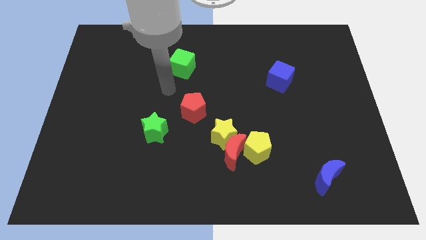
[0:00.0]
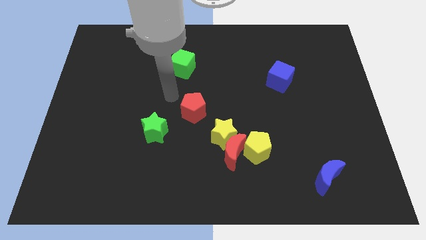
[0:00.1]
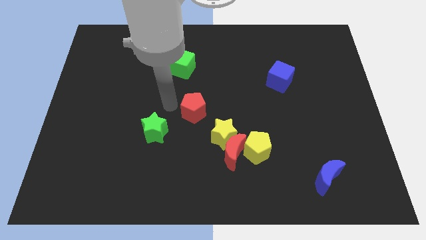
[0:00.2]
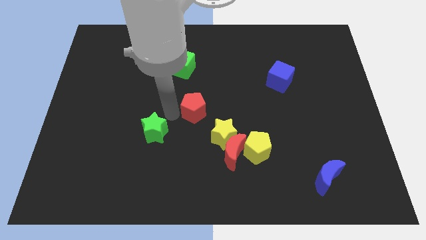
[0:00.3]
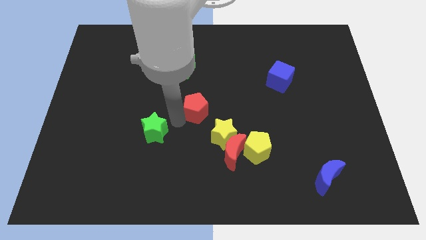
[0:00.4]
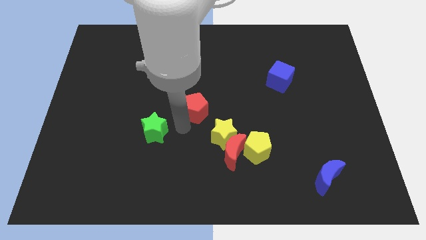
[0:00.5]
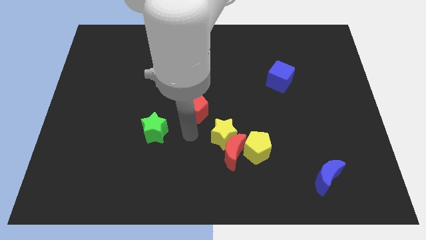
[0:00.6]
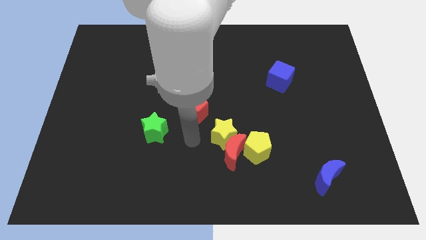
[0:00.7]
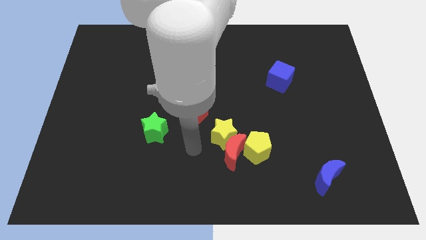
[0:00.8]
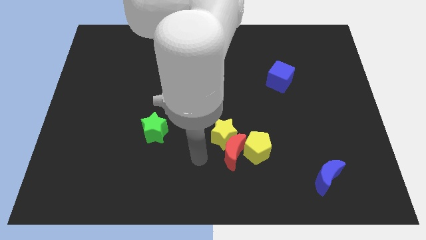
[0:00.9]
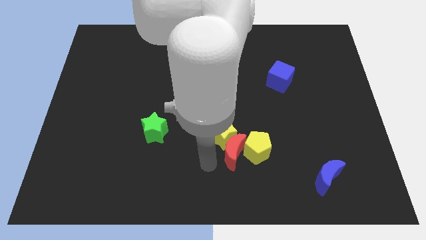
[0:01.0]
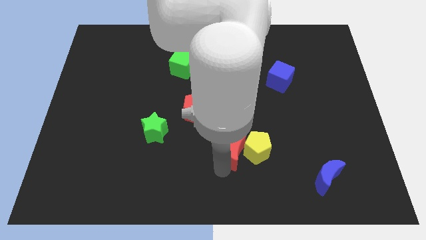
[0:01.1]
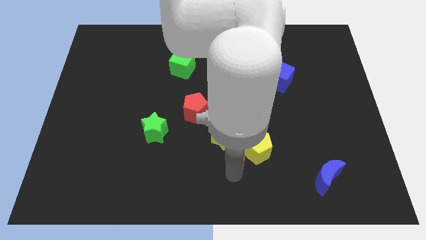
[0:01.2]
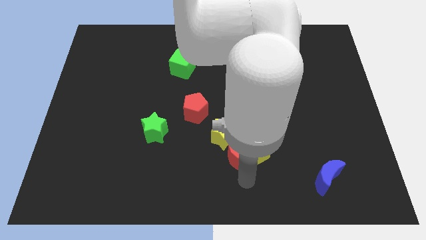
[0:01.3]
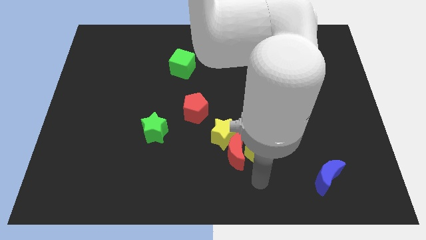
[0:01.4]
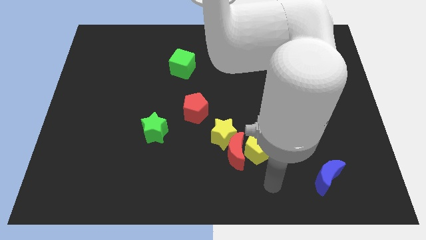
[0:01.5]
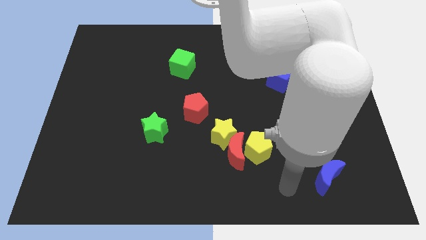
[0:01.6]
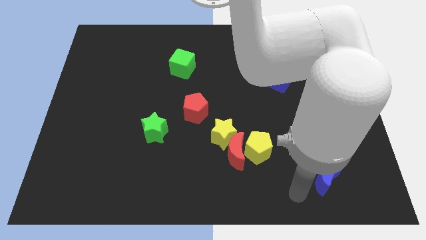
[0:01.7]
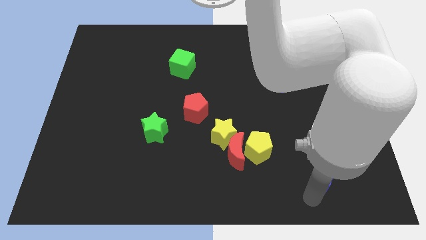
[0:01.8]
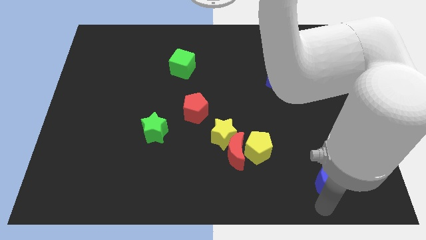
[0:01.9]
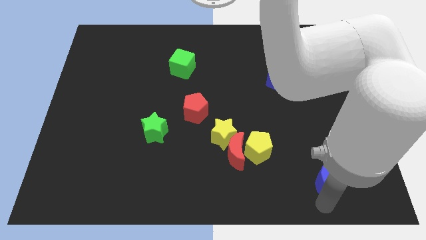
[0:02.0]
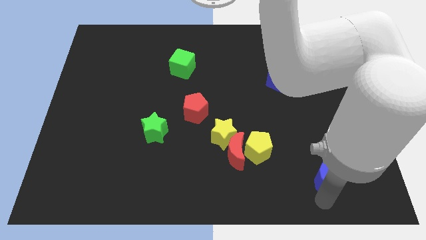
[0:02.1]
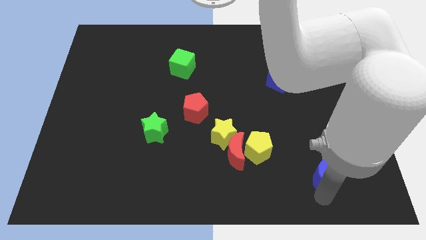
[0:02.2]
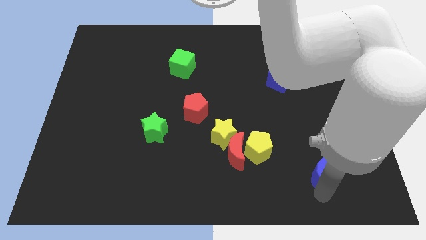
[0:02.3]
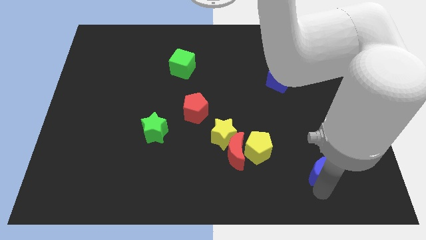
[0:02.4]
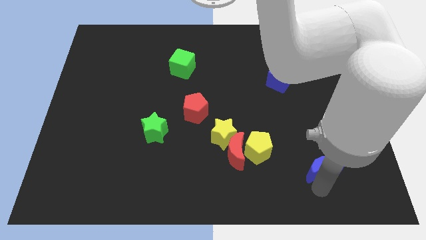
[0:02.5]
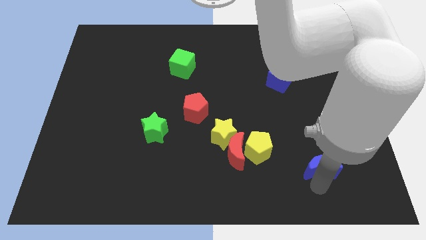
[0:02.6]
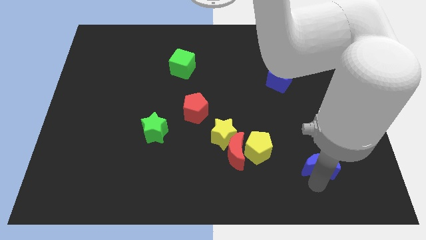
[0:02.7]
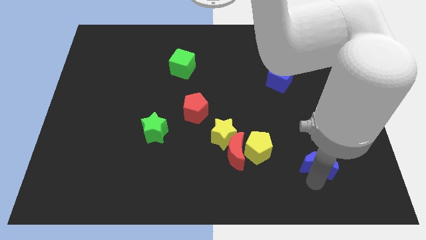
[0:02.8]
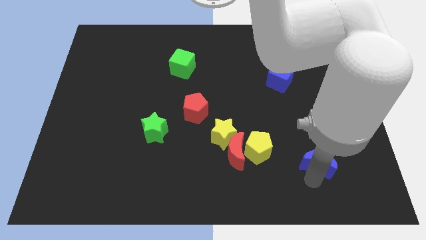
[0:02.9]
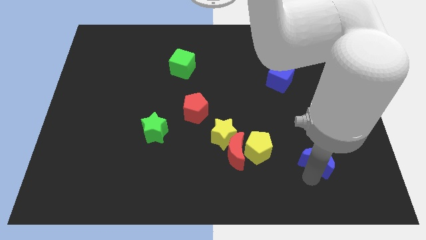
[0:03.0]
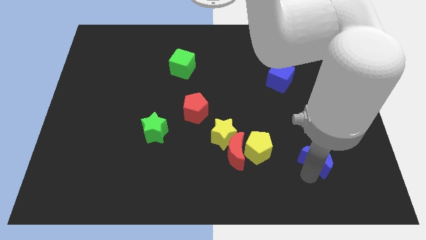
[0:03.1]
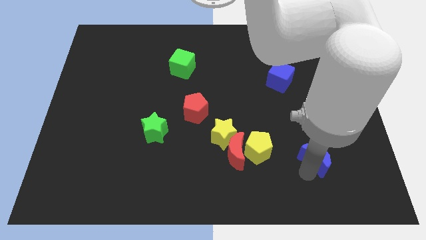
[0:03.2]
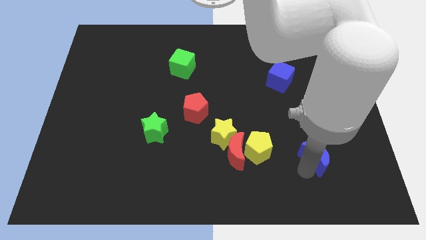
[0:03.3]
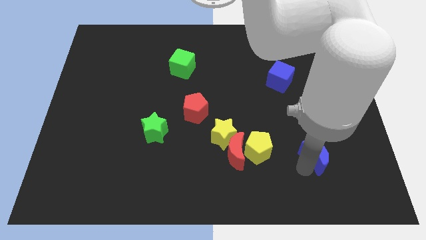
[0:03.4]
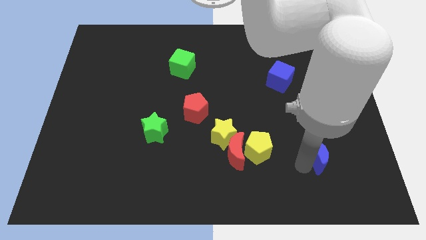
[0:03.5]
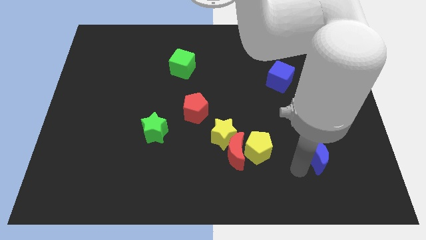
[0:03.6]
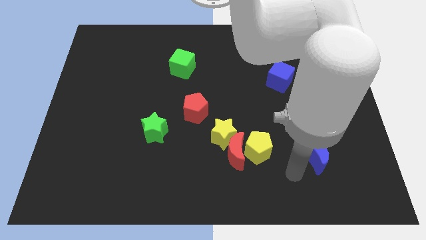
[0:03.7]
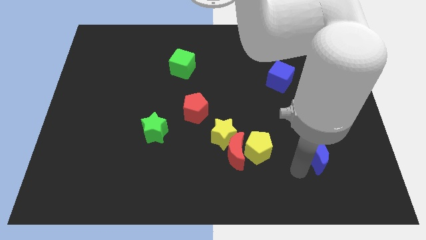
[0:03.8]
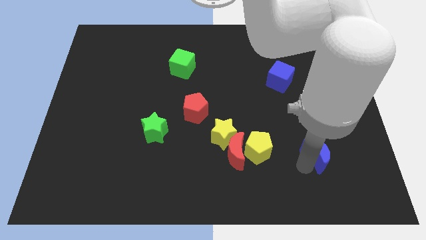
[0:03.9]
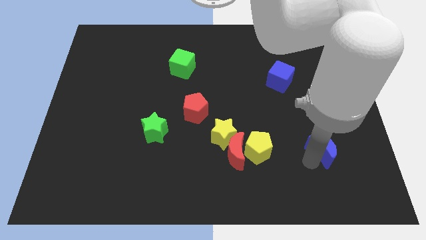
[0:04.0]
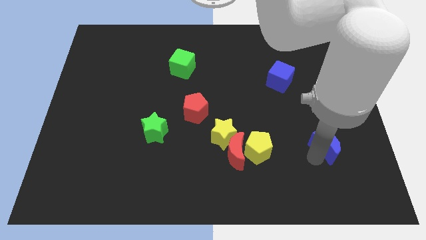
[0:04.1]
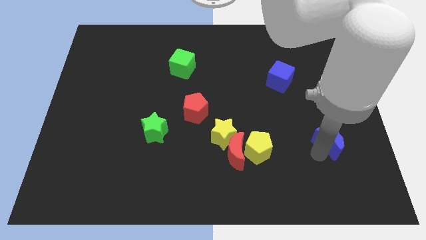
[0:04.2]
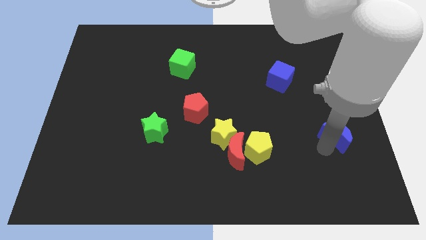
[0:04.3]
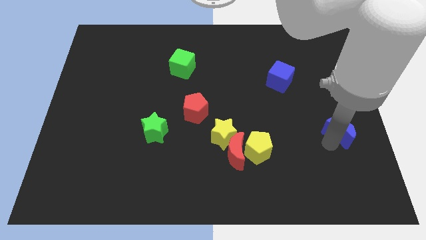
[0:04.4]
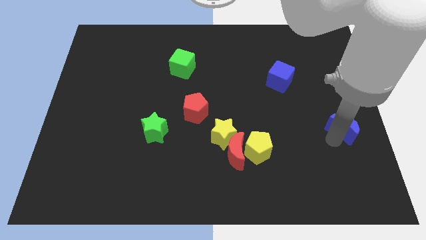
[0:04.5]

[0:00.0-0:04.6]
put the blue moon to the right side

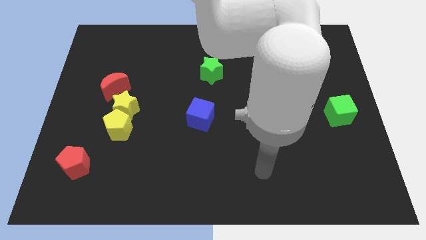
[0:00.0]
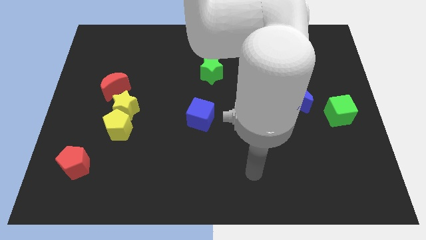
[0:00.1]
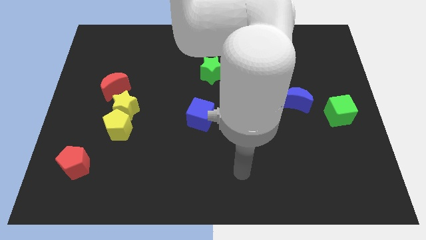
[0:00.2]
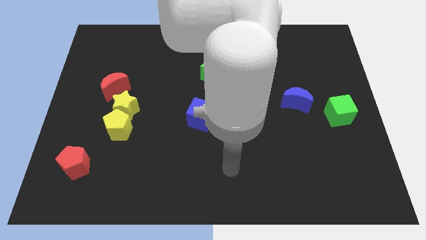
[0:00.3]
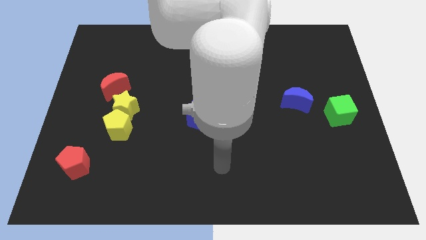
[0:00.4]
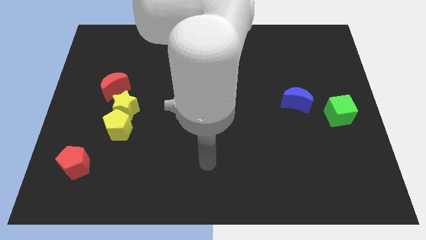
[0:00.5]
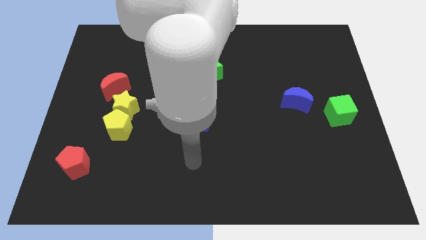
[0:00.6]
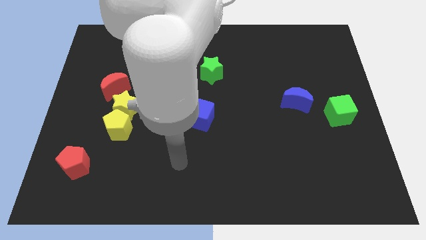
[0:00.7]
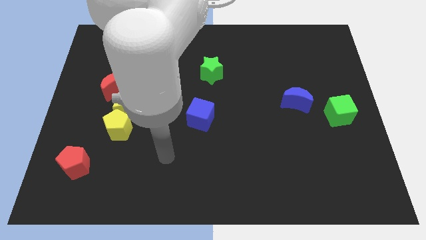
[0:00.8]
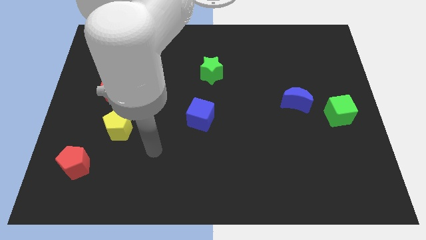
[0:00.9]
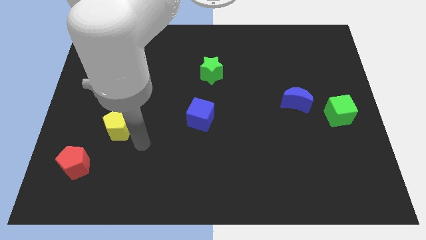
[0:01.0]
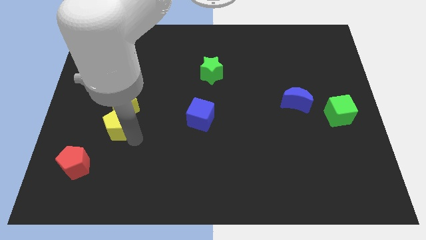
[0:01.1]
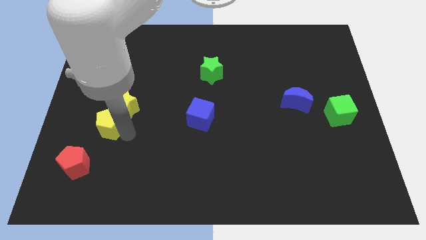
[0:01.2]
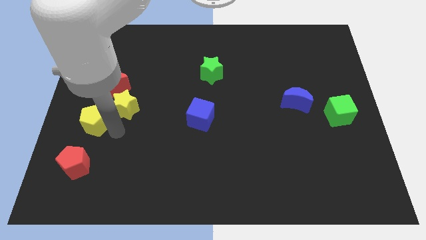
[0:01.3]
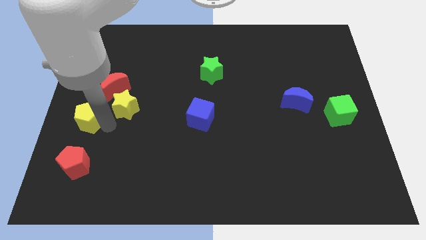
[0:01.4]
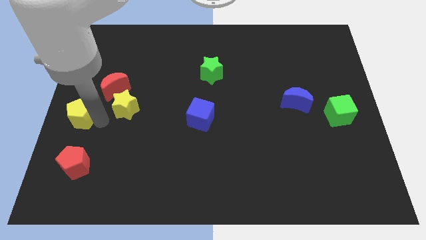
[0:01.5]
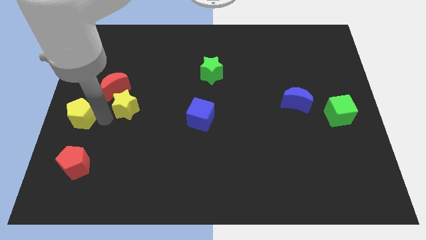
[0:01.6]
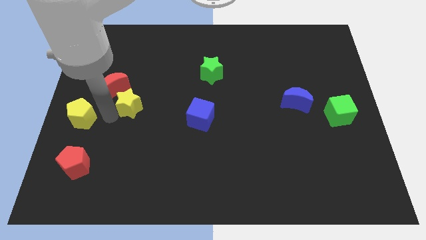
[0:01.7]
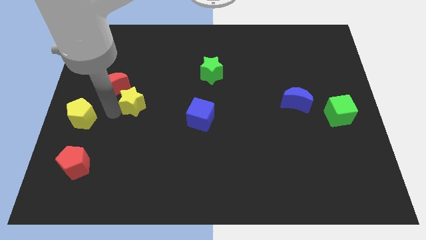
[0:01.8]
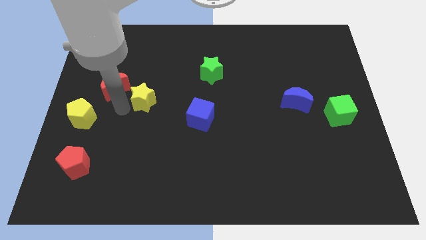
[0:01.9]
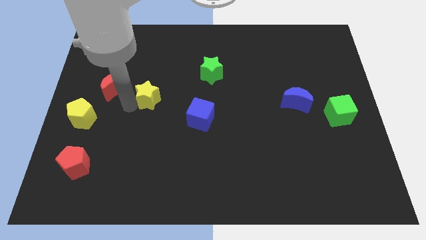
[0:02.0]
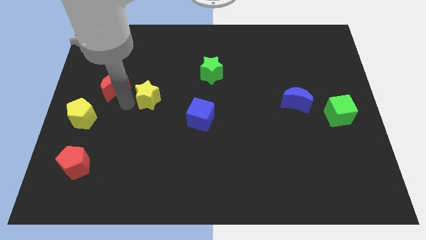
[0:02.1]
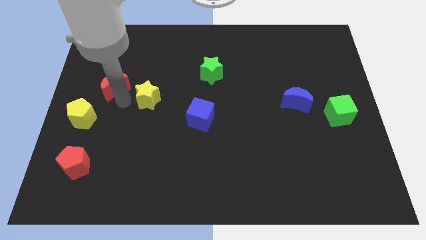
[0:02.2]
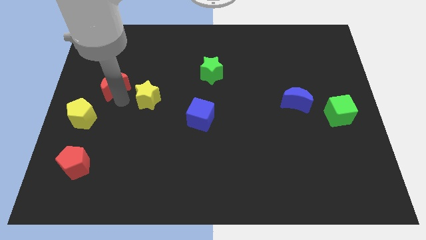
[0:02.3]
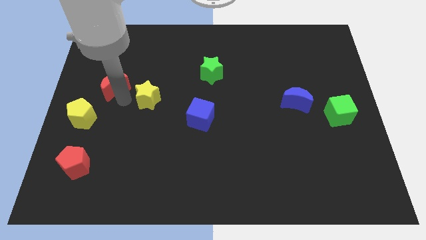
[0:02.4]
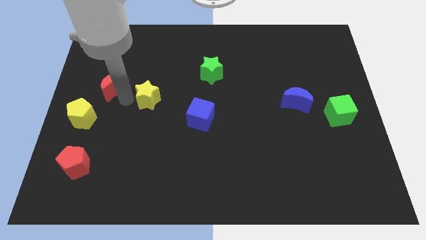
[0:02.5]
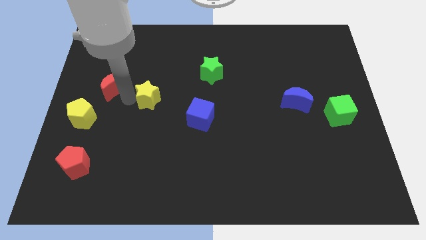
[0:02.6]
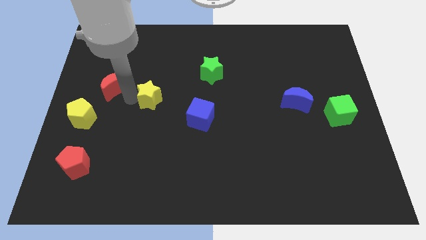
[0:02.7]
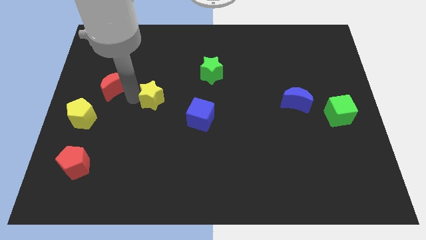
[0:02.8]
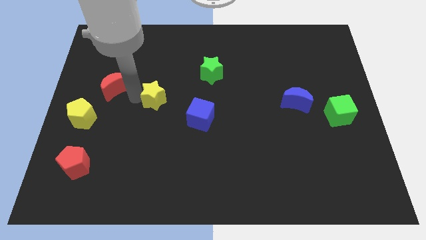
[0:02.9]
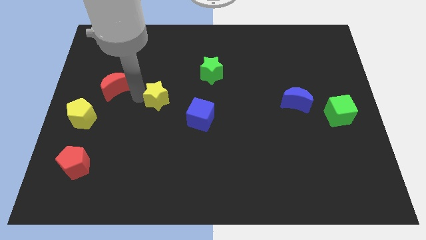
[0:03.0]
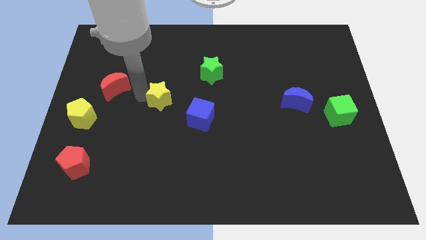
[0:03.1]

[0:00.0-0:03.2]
push the yellow star to the center of the board
